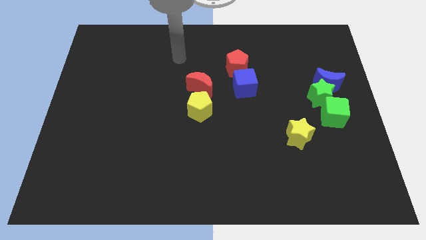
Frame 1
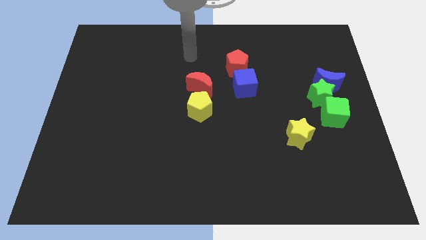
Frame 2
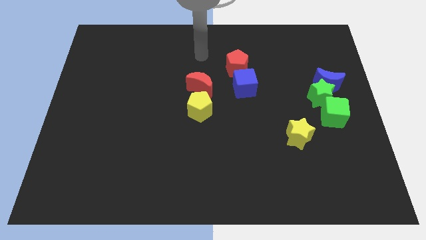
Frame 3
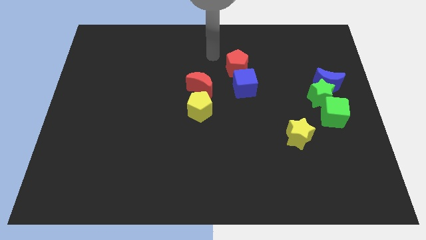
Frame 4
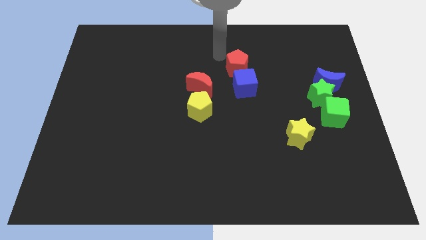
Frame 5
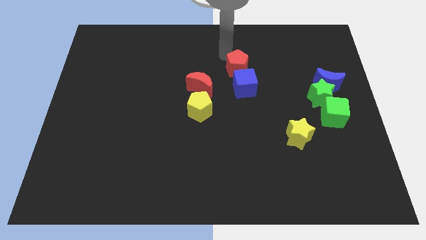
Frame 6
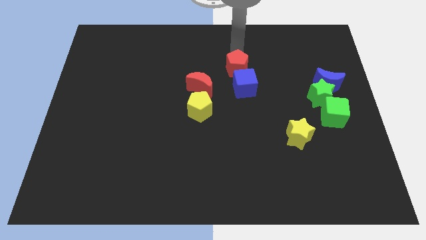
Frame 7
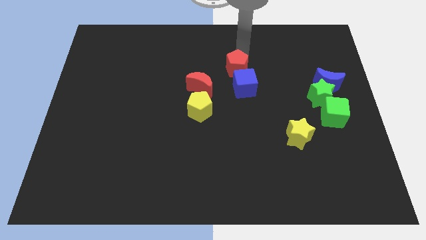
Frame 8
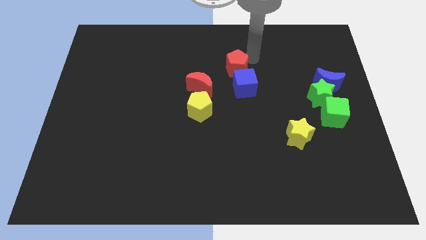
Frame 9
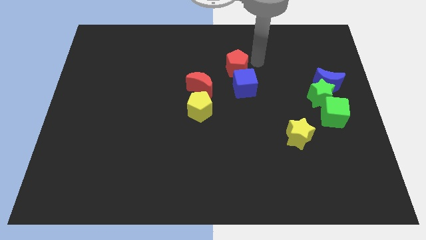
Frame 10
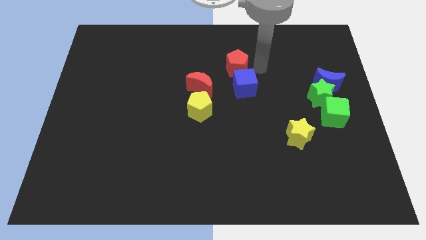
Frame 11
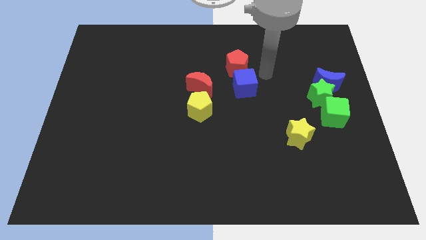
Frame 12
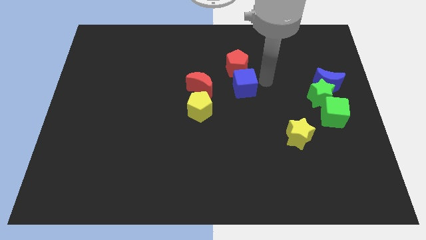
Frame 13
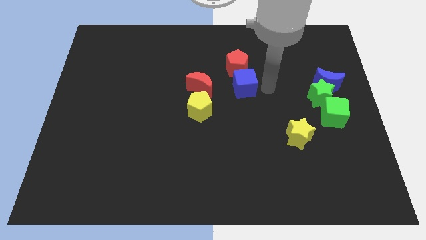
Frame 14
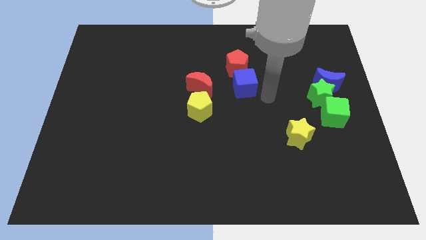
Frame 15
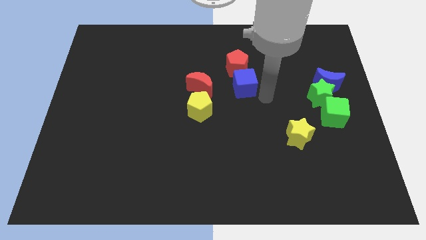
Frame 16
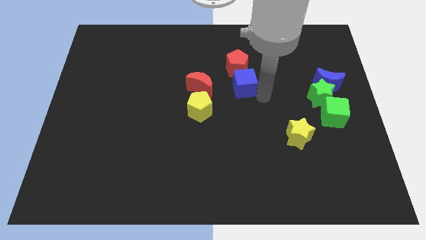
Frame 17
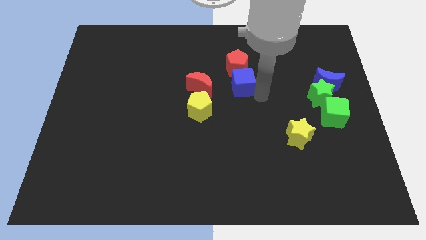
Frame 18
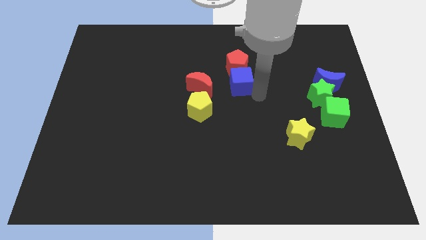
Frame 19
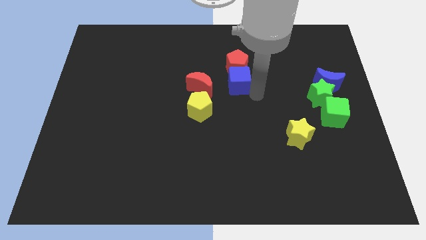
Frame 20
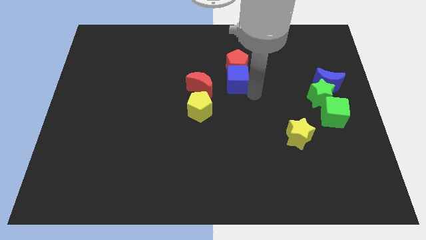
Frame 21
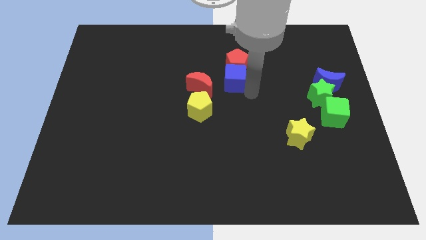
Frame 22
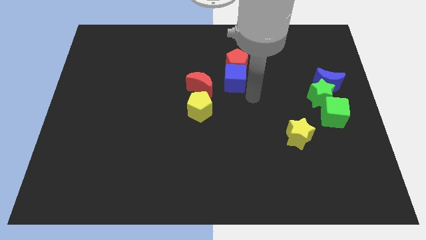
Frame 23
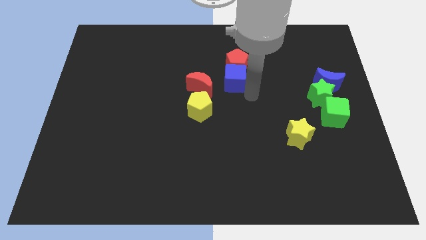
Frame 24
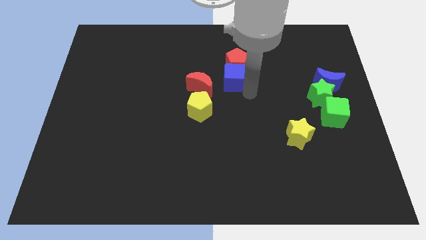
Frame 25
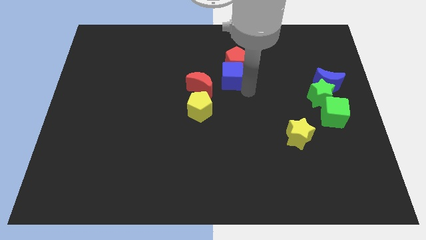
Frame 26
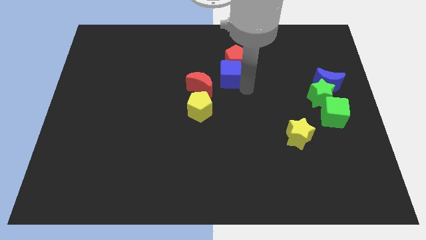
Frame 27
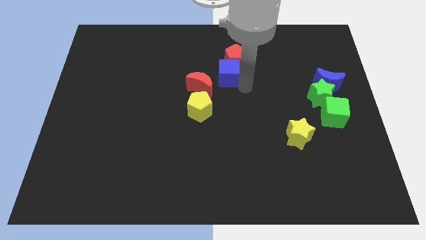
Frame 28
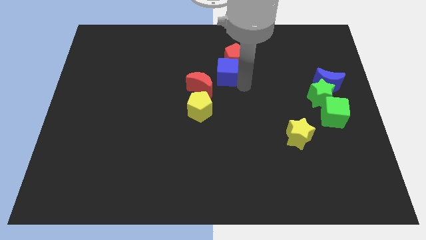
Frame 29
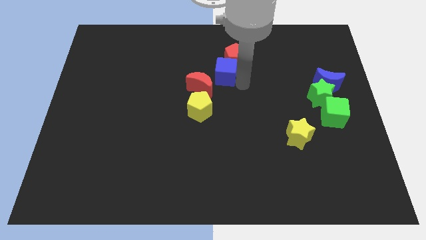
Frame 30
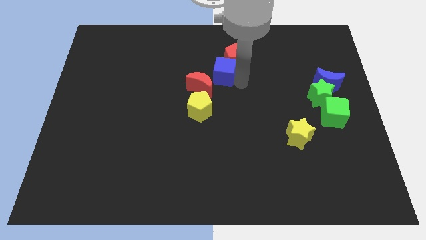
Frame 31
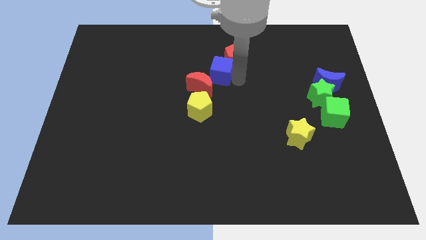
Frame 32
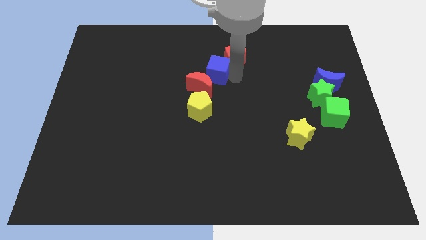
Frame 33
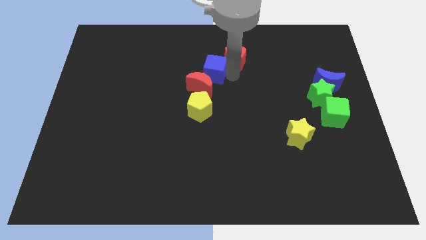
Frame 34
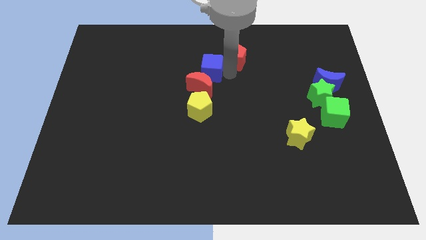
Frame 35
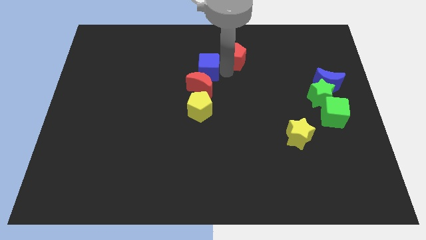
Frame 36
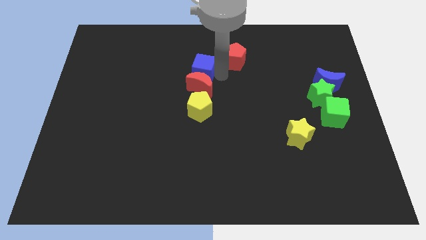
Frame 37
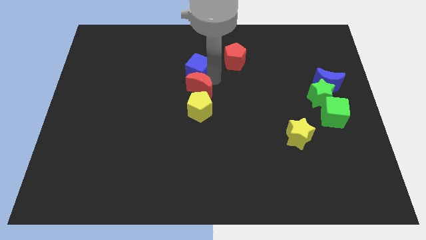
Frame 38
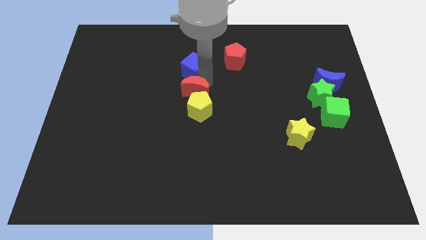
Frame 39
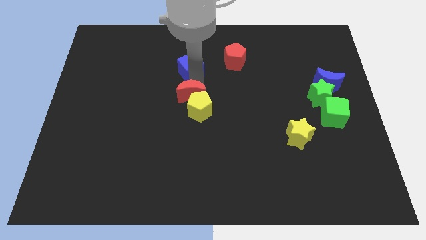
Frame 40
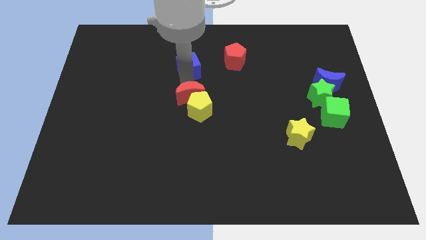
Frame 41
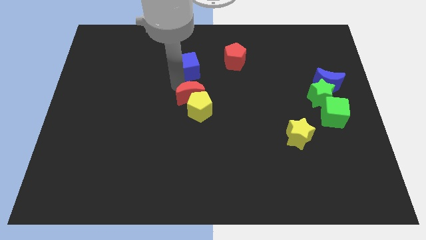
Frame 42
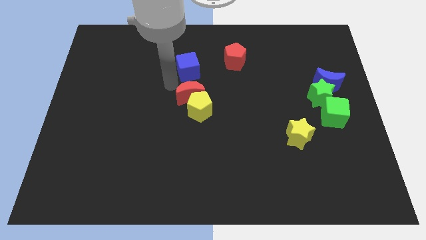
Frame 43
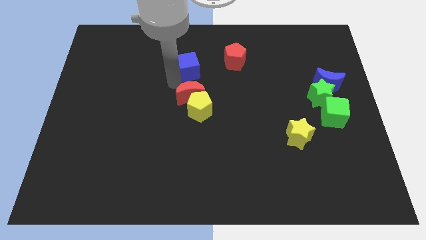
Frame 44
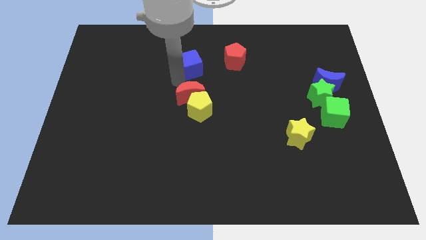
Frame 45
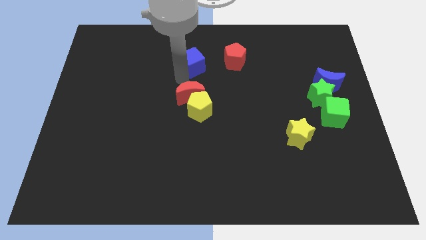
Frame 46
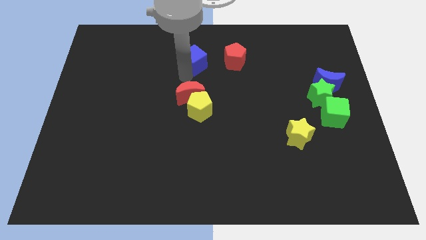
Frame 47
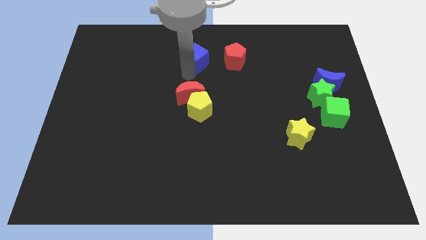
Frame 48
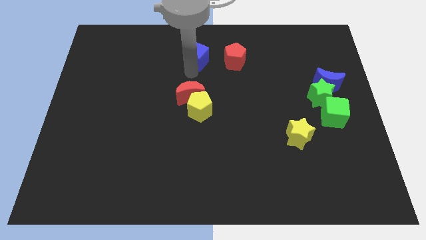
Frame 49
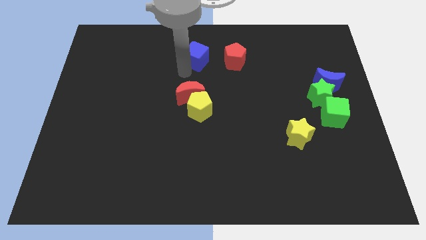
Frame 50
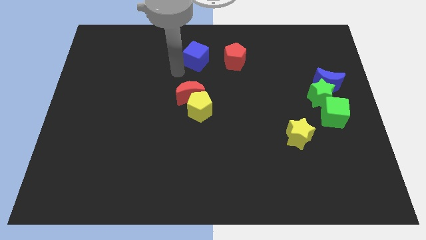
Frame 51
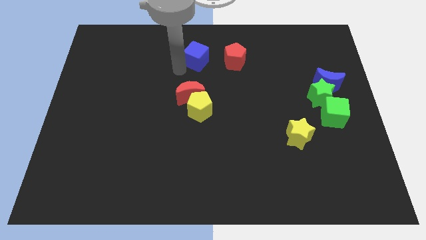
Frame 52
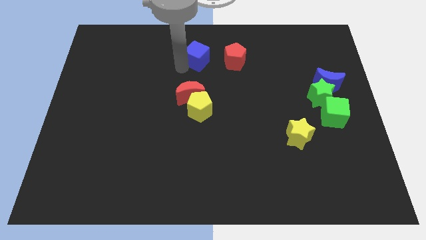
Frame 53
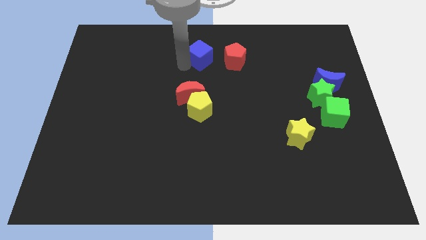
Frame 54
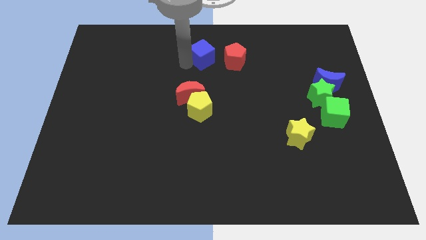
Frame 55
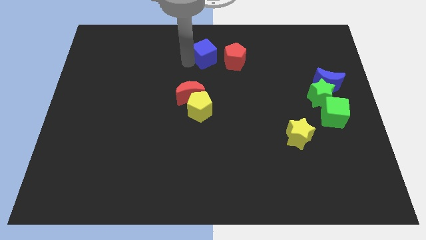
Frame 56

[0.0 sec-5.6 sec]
put the blue cube to the top

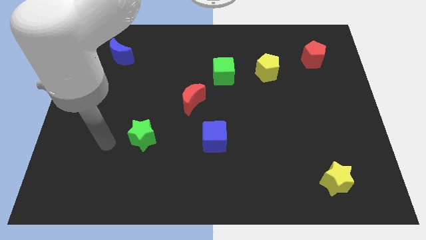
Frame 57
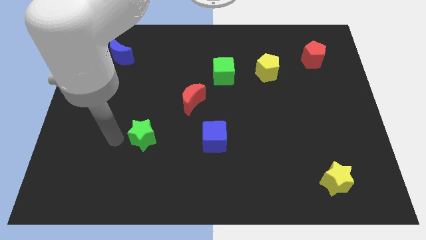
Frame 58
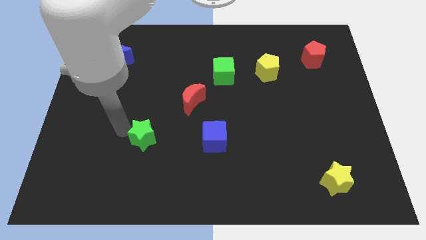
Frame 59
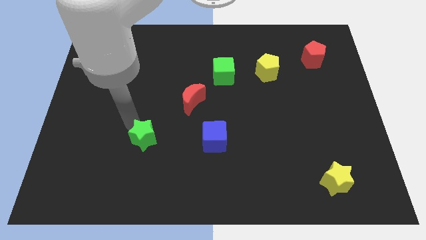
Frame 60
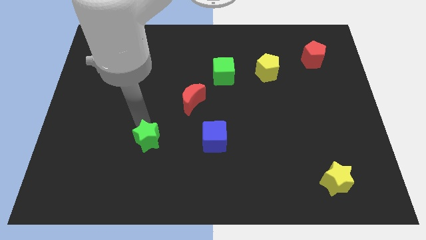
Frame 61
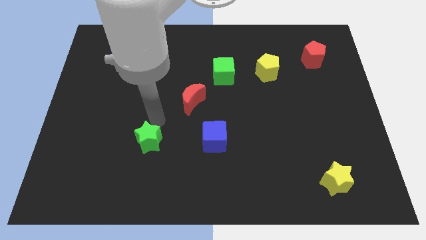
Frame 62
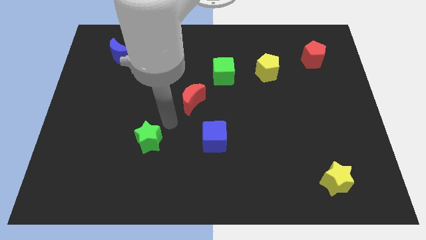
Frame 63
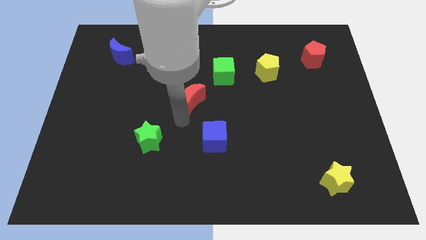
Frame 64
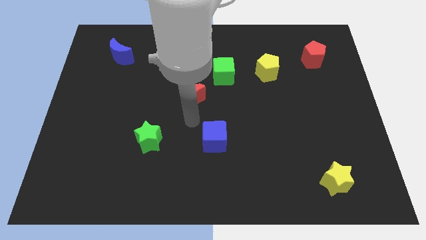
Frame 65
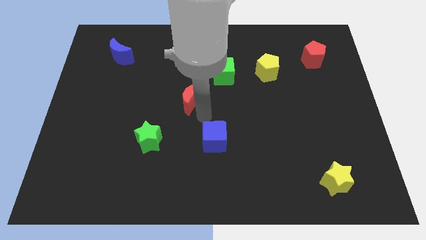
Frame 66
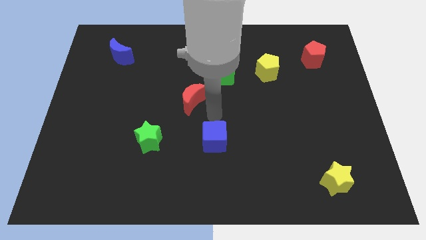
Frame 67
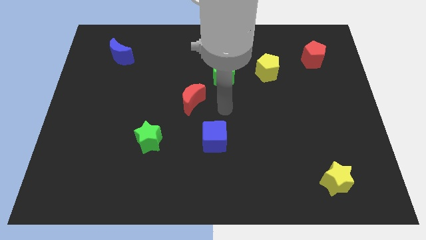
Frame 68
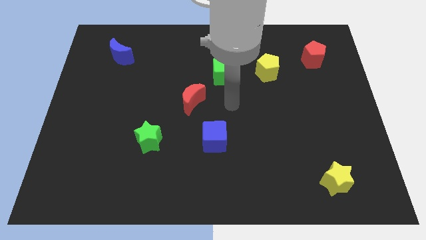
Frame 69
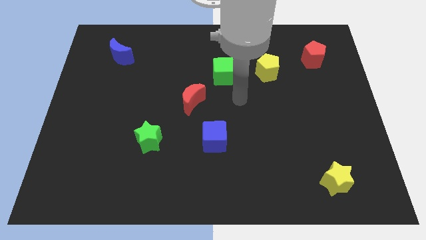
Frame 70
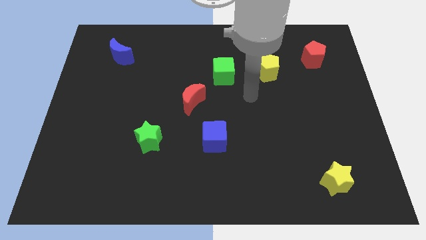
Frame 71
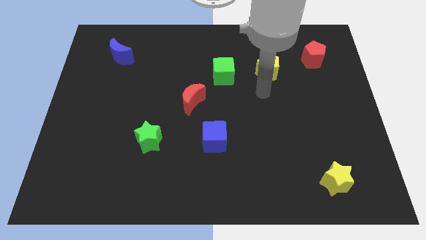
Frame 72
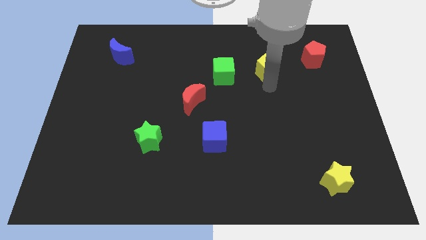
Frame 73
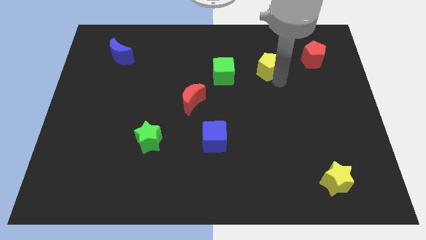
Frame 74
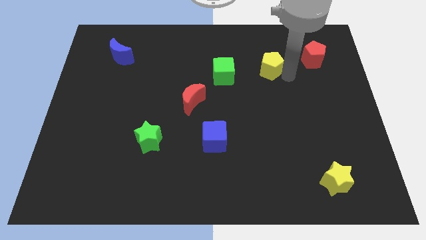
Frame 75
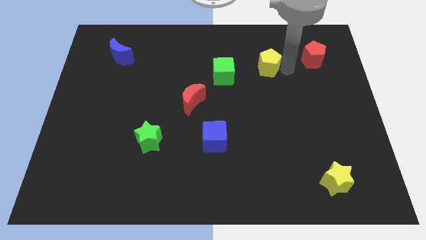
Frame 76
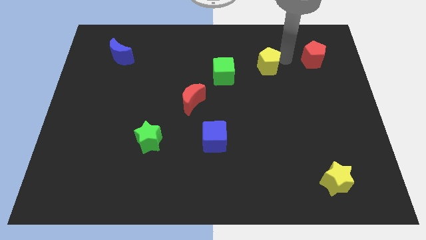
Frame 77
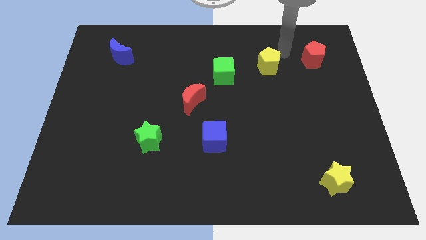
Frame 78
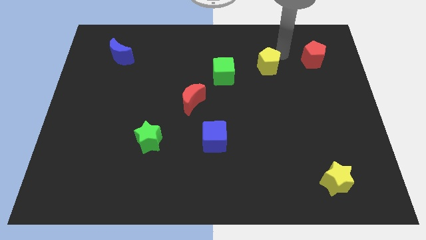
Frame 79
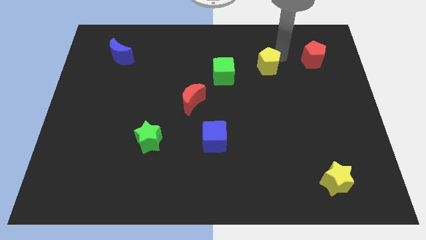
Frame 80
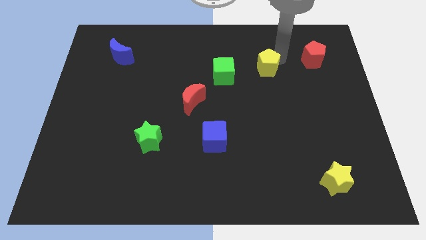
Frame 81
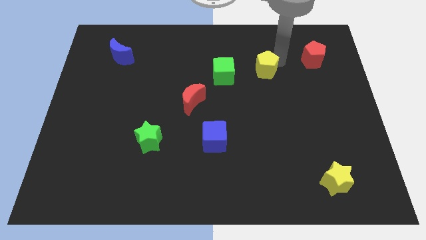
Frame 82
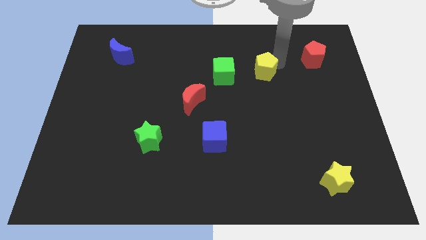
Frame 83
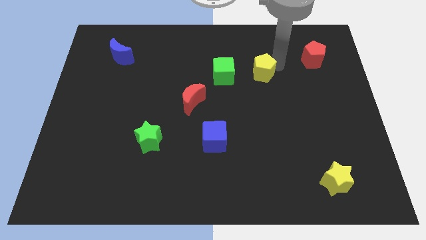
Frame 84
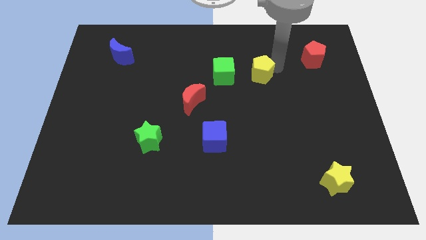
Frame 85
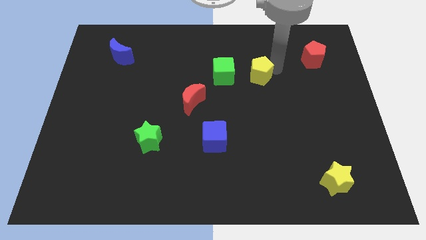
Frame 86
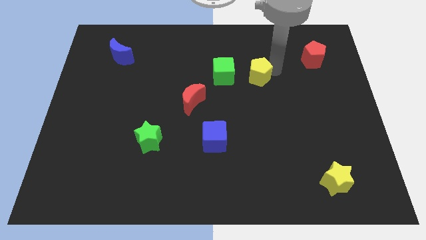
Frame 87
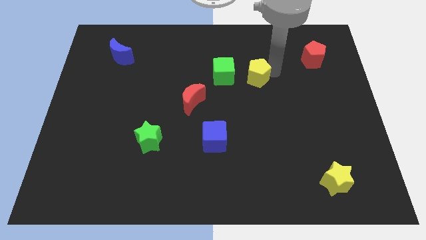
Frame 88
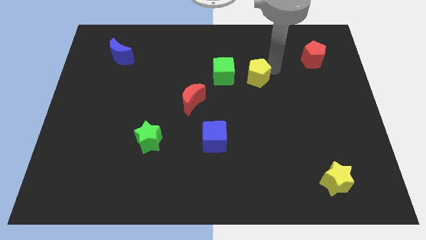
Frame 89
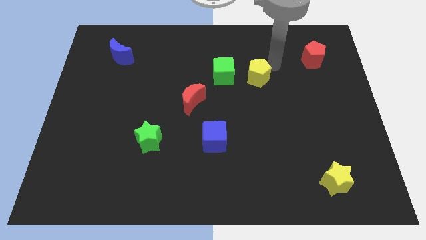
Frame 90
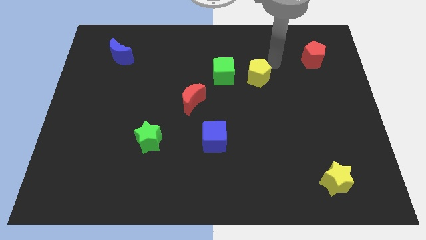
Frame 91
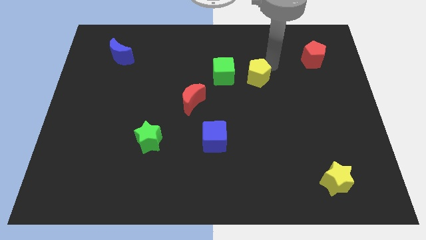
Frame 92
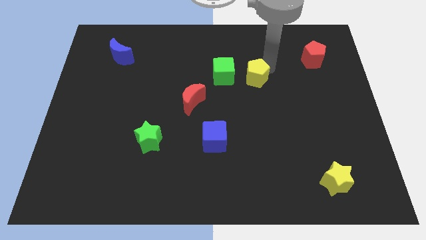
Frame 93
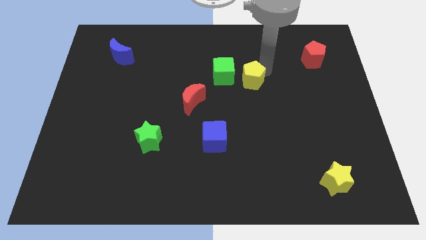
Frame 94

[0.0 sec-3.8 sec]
put the yellow pentagon to the center of the board
